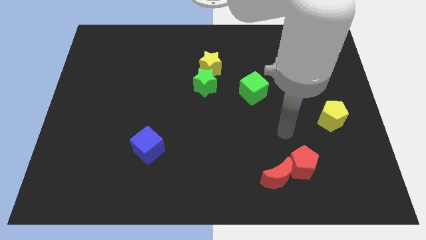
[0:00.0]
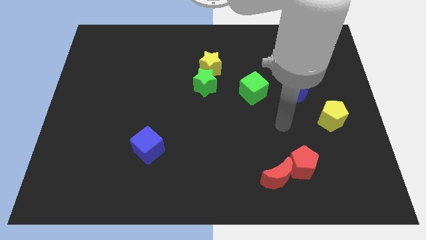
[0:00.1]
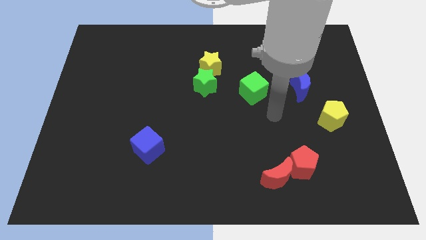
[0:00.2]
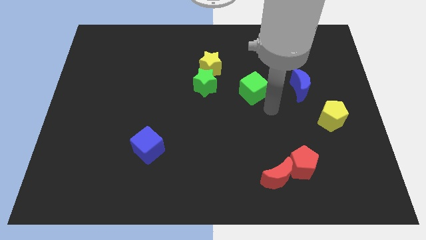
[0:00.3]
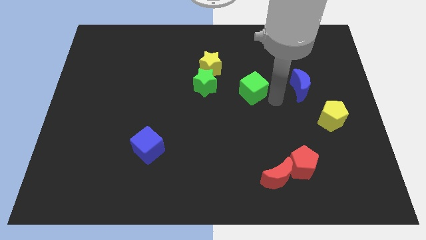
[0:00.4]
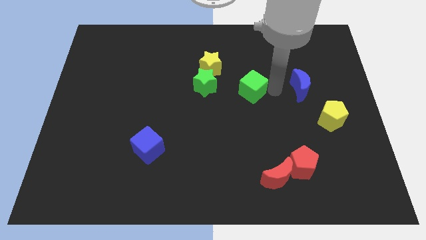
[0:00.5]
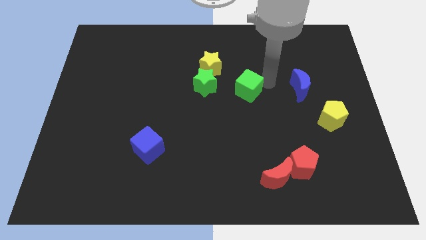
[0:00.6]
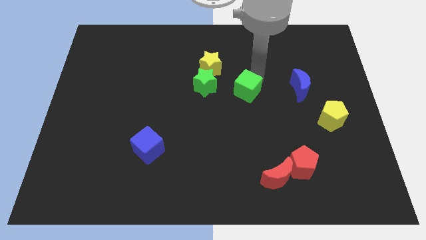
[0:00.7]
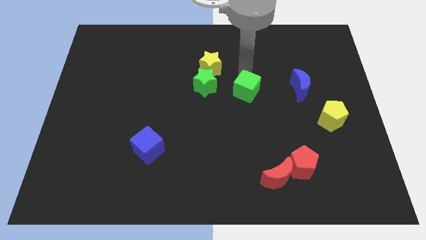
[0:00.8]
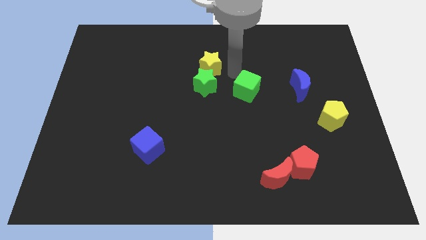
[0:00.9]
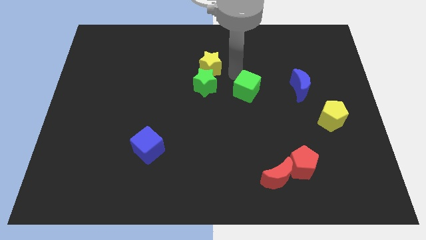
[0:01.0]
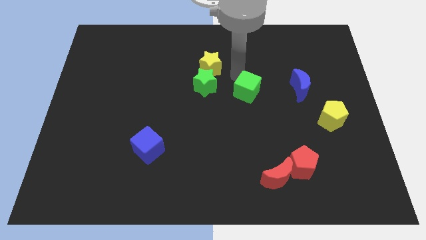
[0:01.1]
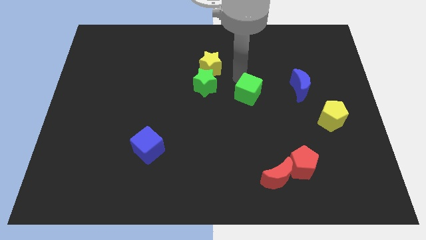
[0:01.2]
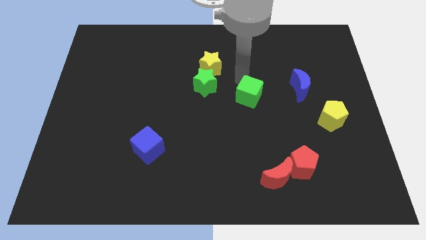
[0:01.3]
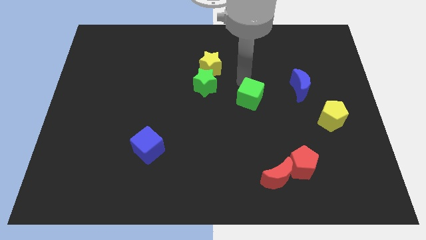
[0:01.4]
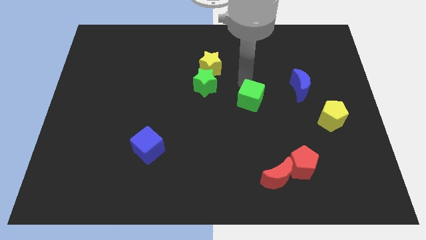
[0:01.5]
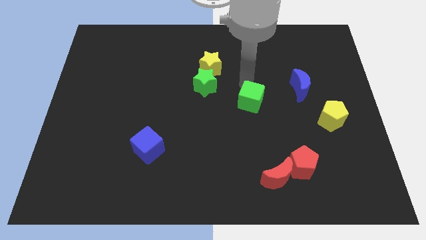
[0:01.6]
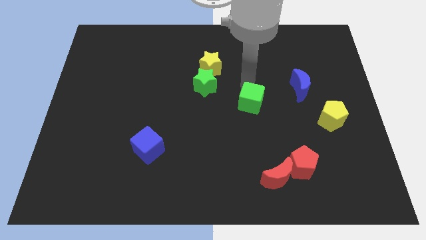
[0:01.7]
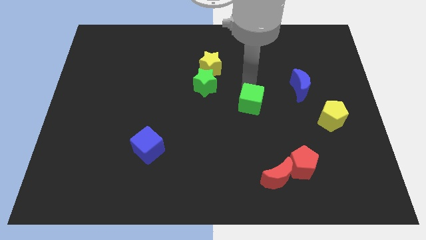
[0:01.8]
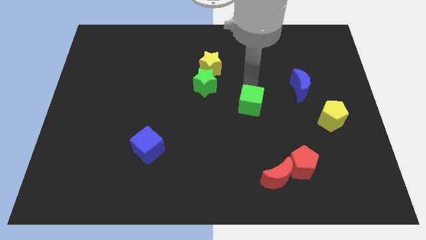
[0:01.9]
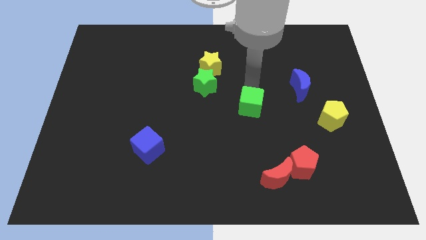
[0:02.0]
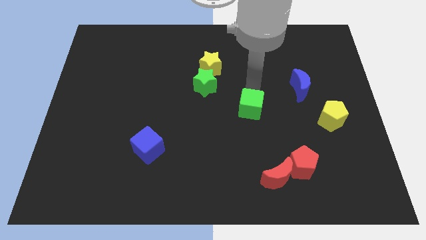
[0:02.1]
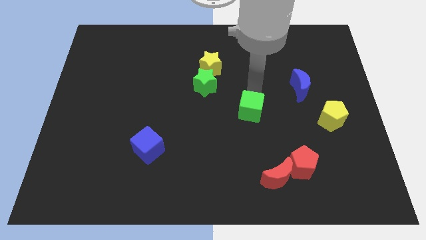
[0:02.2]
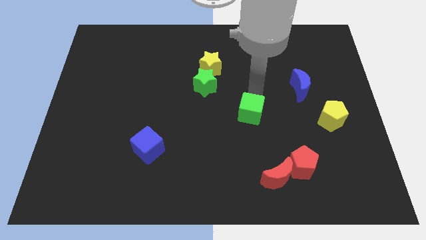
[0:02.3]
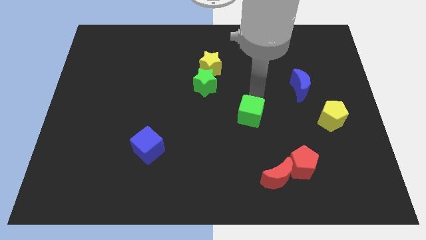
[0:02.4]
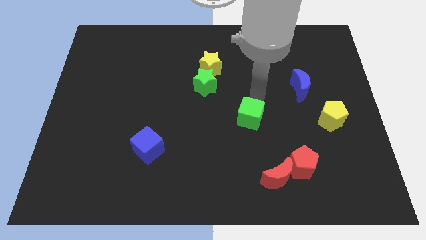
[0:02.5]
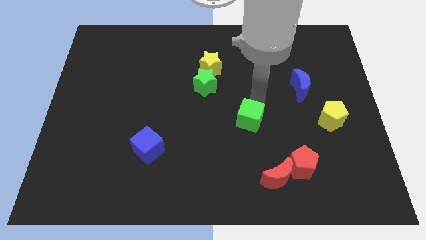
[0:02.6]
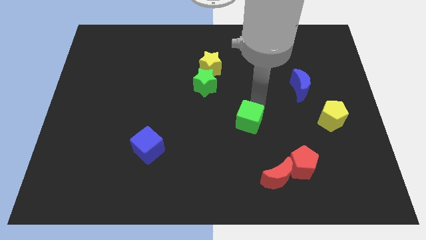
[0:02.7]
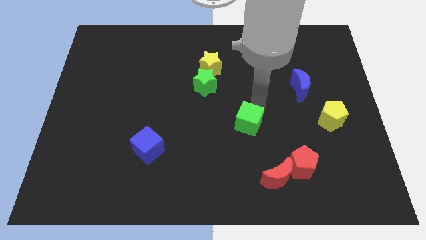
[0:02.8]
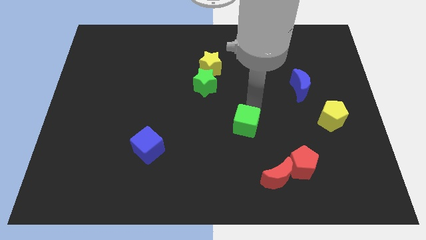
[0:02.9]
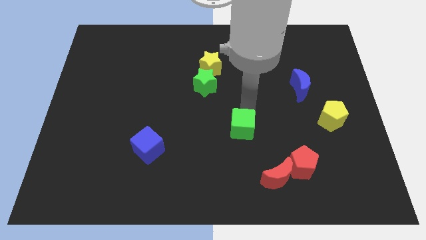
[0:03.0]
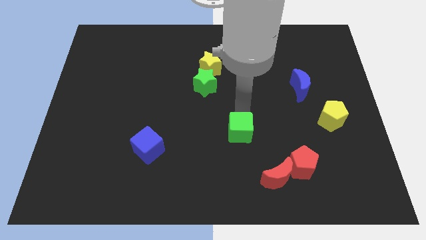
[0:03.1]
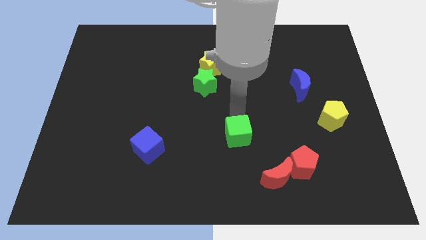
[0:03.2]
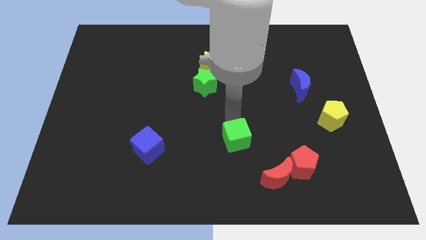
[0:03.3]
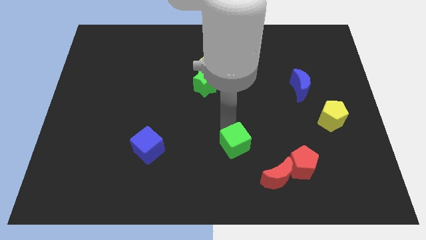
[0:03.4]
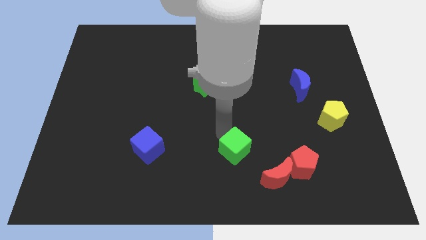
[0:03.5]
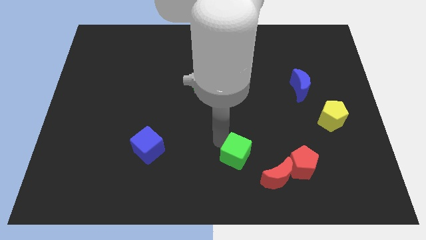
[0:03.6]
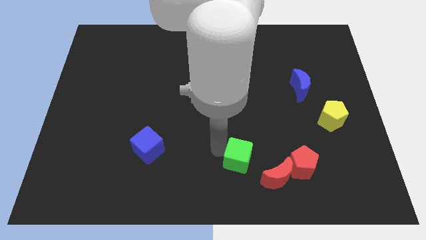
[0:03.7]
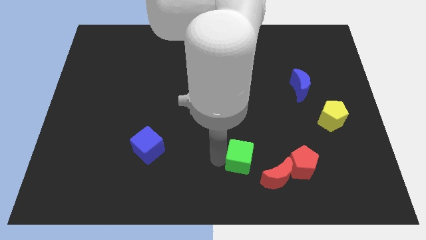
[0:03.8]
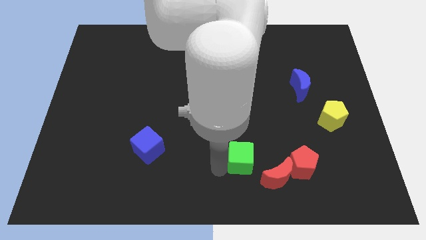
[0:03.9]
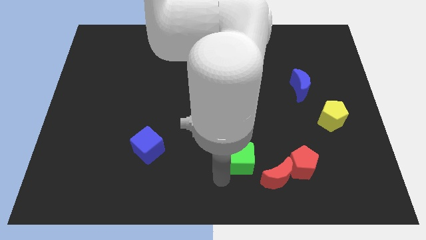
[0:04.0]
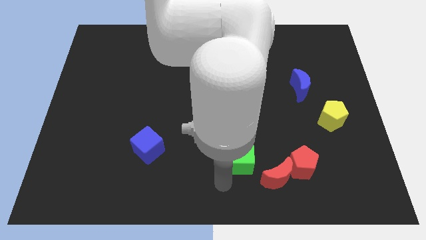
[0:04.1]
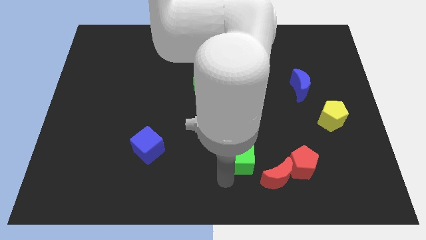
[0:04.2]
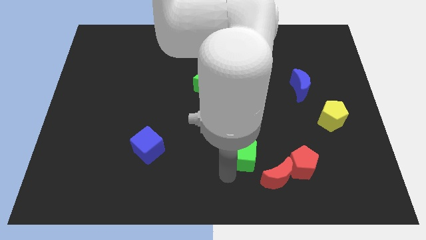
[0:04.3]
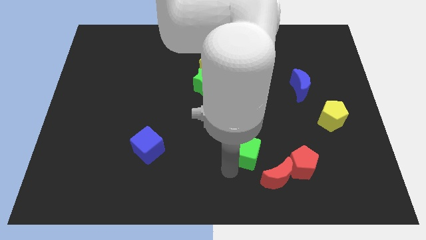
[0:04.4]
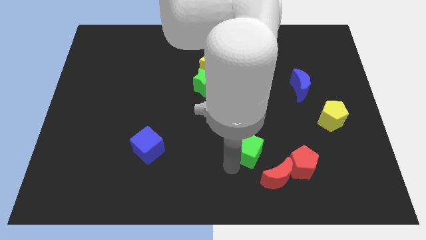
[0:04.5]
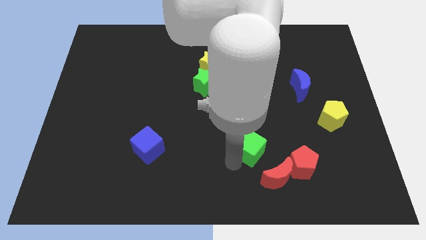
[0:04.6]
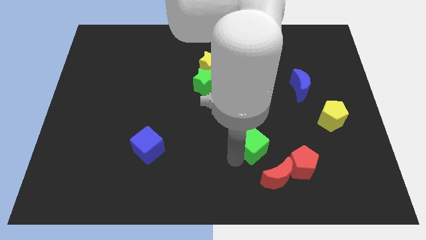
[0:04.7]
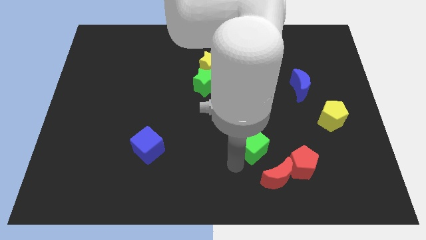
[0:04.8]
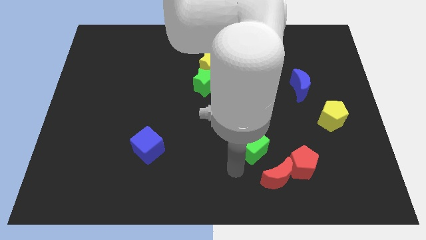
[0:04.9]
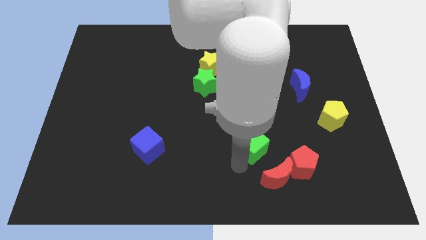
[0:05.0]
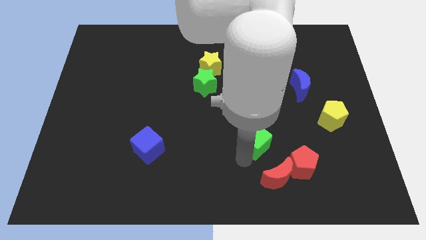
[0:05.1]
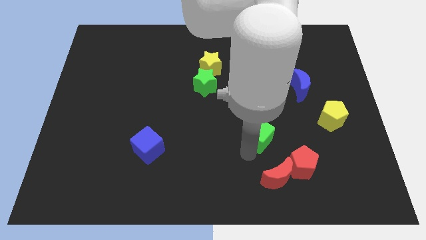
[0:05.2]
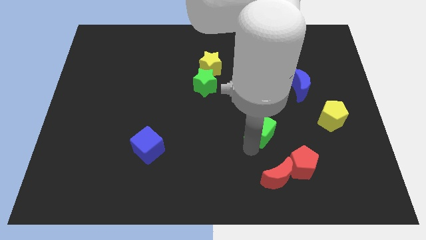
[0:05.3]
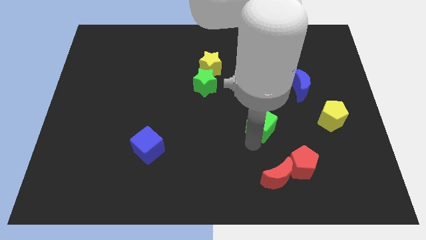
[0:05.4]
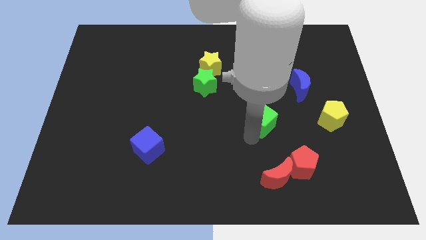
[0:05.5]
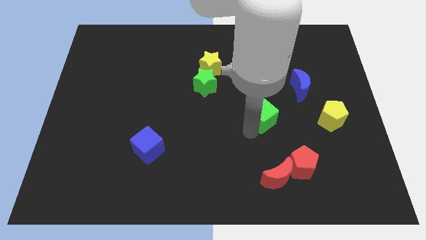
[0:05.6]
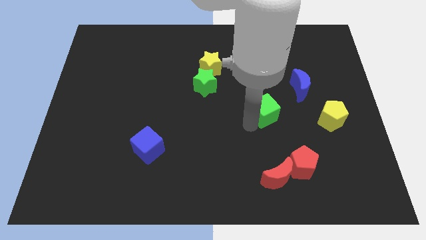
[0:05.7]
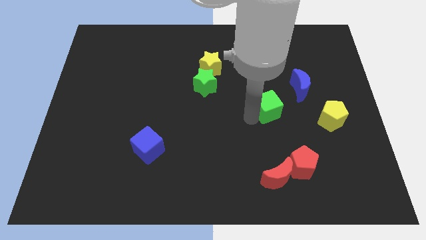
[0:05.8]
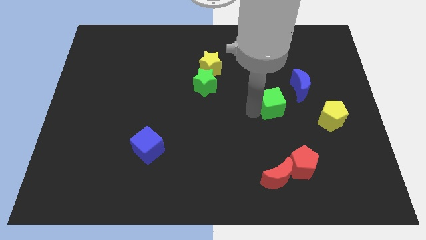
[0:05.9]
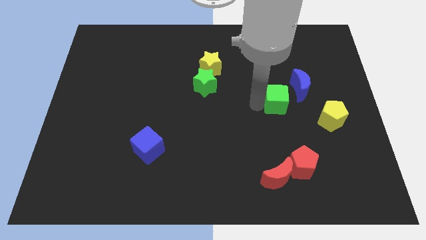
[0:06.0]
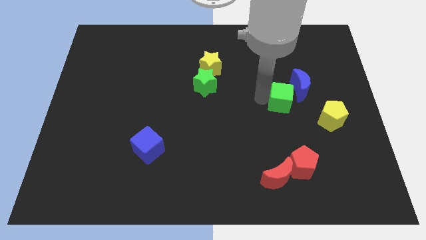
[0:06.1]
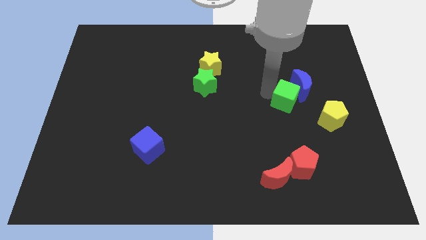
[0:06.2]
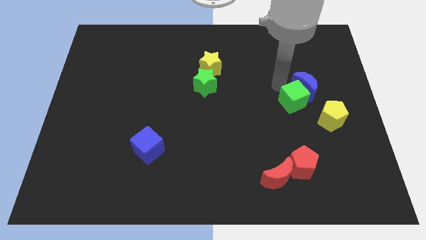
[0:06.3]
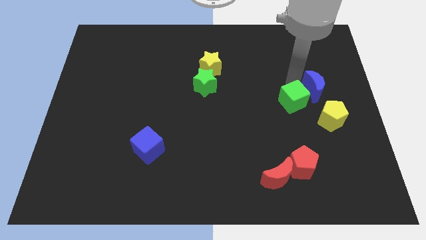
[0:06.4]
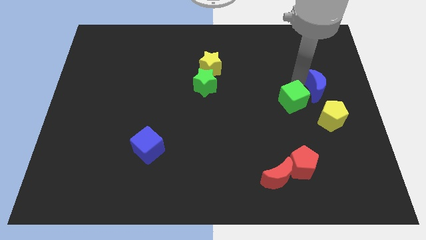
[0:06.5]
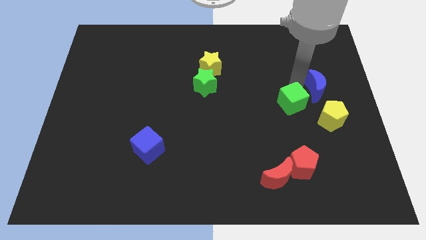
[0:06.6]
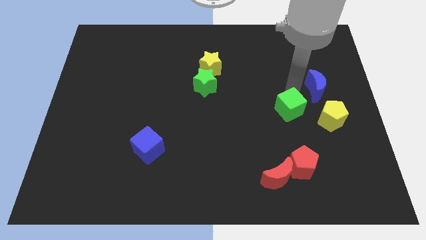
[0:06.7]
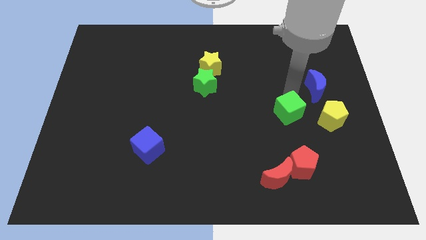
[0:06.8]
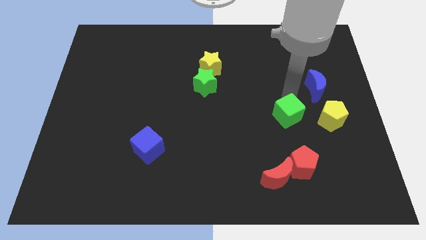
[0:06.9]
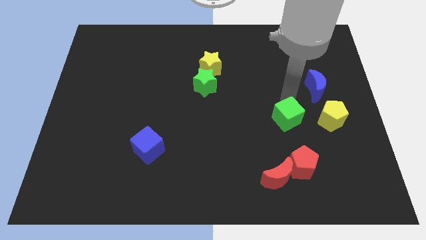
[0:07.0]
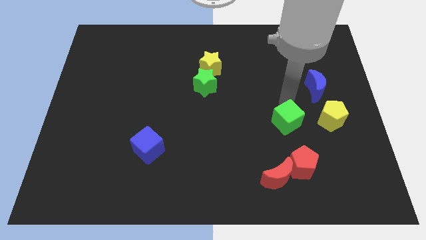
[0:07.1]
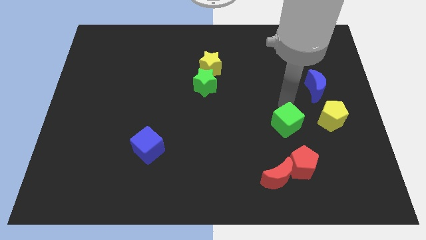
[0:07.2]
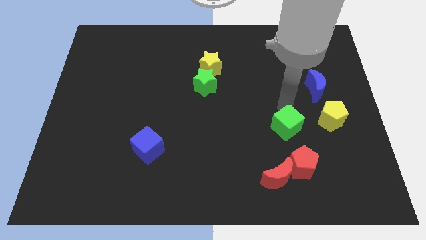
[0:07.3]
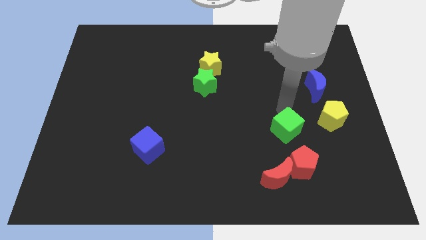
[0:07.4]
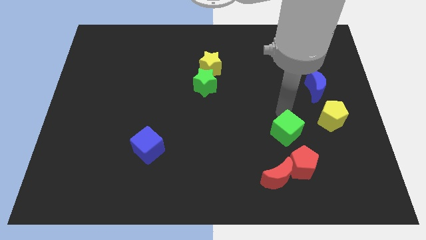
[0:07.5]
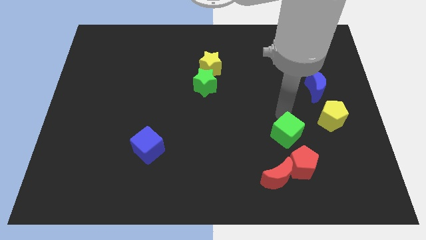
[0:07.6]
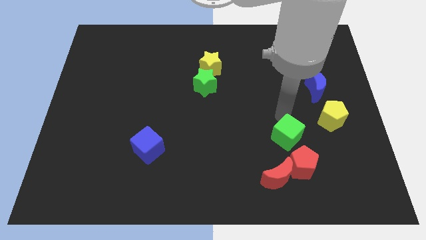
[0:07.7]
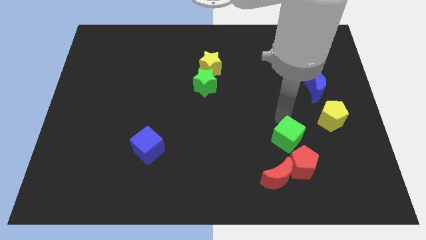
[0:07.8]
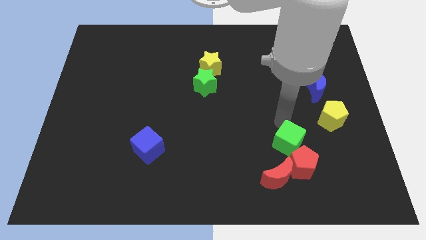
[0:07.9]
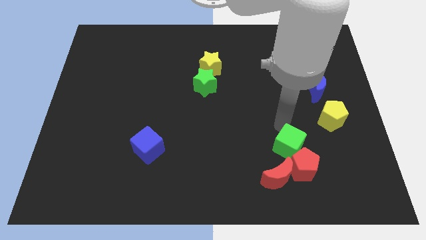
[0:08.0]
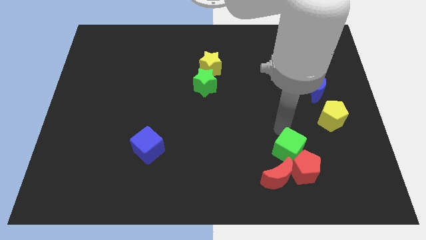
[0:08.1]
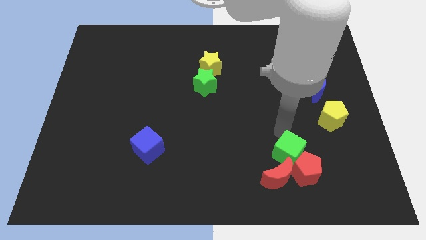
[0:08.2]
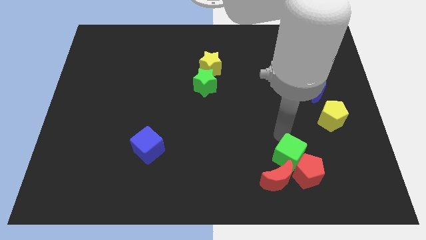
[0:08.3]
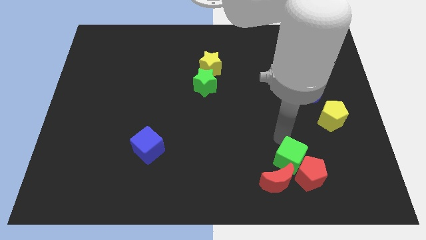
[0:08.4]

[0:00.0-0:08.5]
slide the green cube close to the red moon
